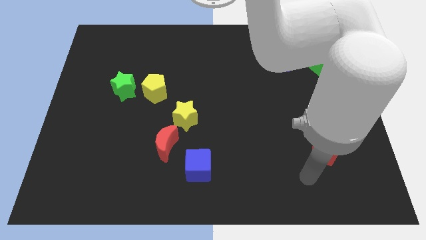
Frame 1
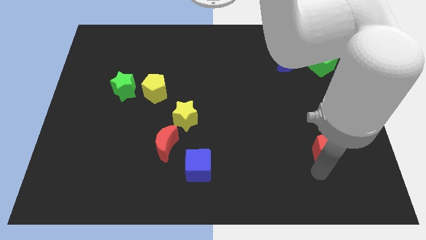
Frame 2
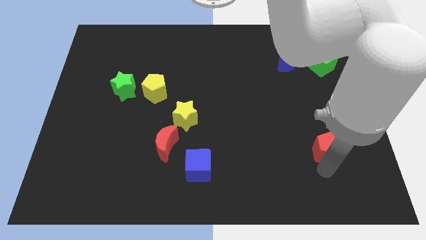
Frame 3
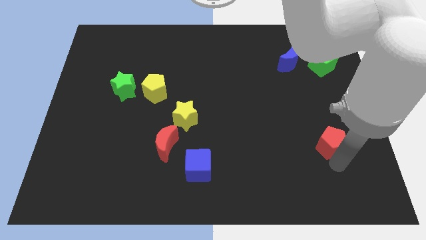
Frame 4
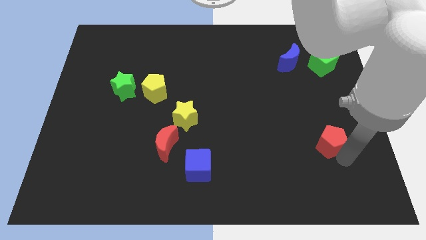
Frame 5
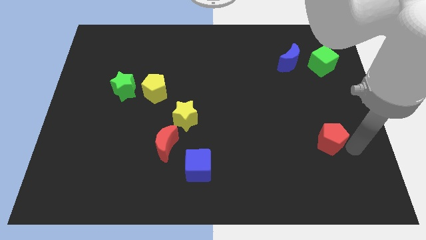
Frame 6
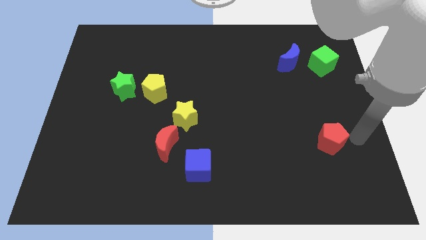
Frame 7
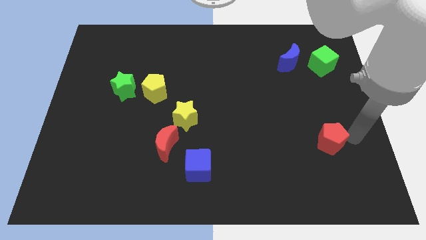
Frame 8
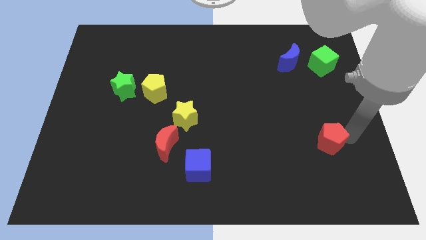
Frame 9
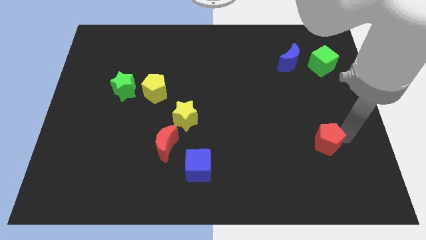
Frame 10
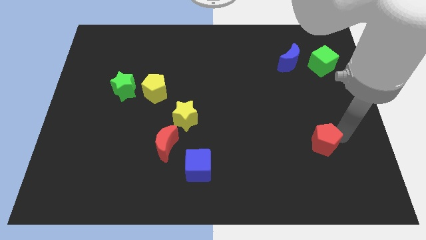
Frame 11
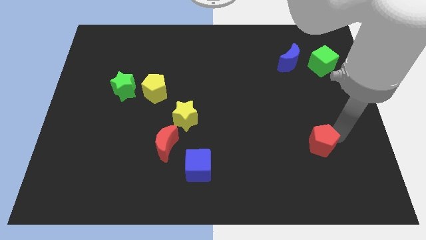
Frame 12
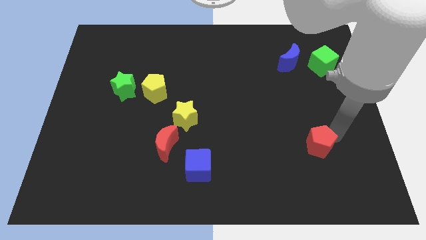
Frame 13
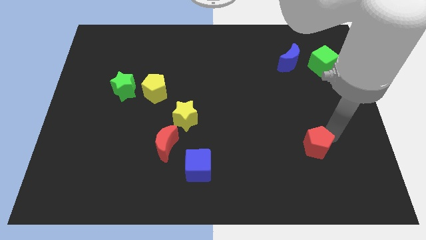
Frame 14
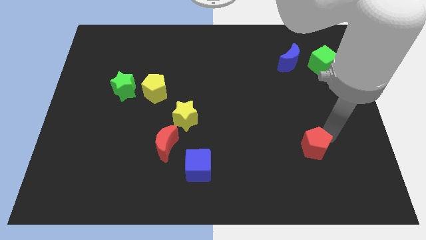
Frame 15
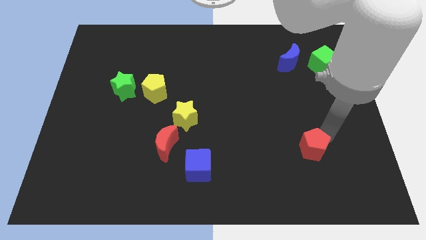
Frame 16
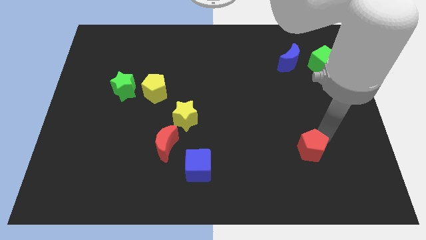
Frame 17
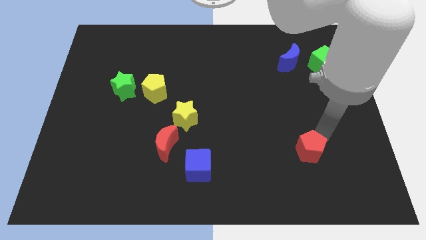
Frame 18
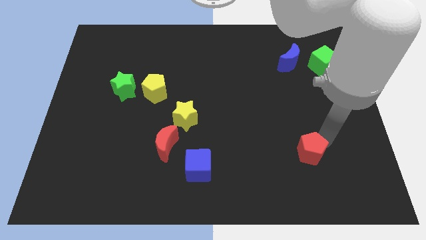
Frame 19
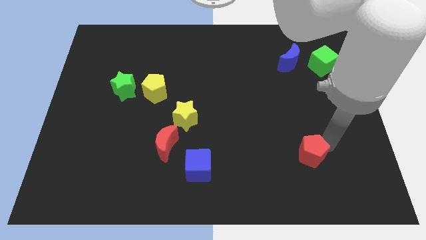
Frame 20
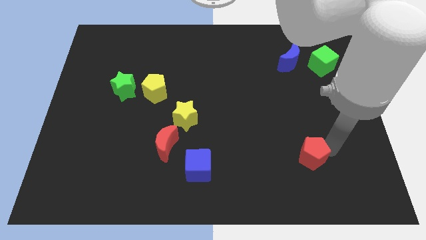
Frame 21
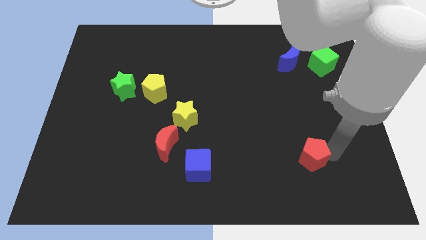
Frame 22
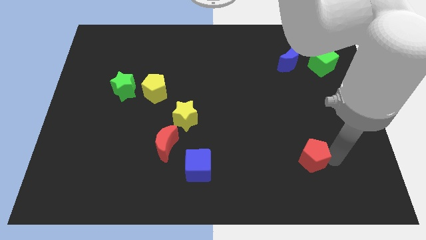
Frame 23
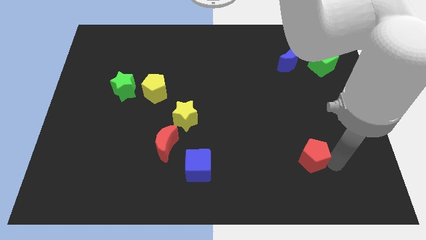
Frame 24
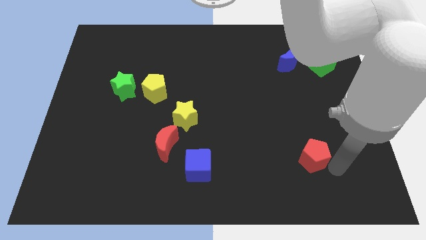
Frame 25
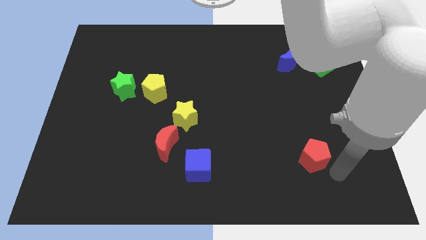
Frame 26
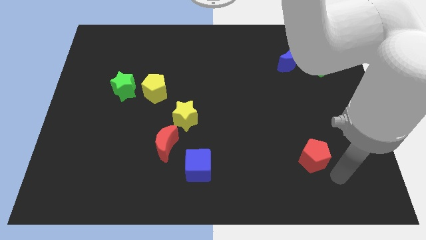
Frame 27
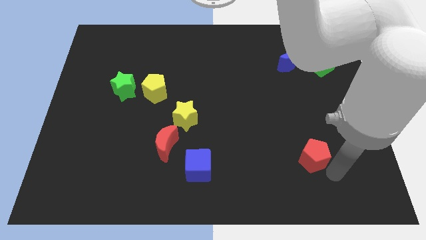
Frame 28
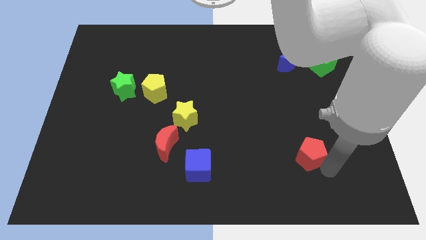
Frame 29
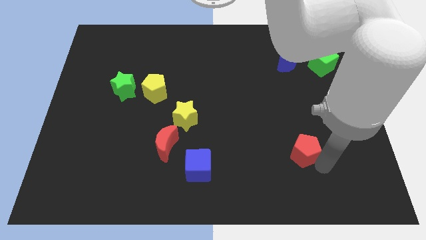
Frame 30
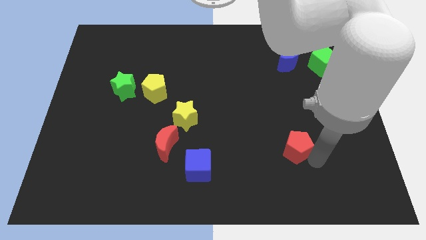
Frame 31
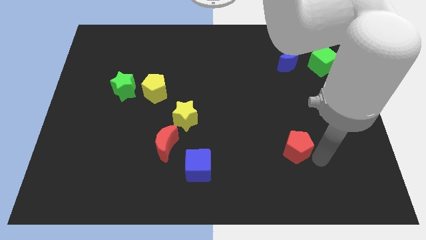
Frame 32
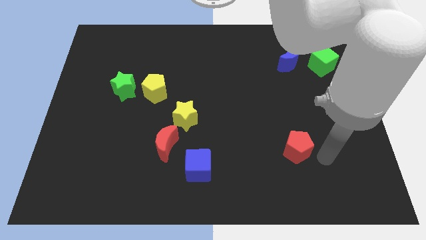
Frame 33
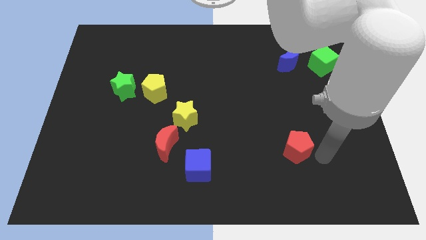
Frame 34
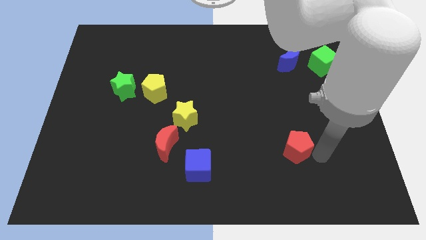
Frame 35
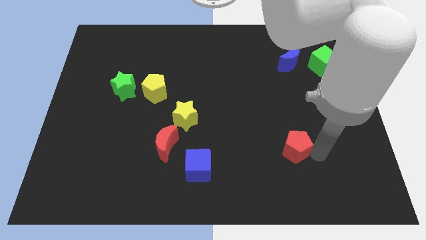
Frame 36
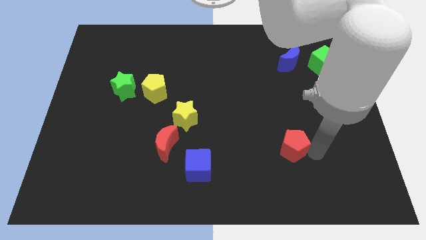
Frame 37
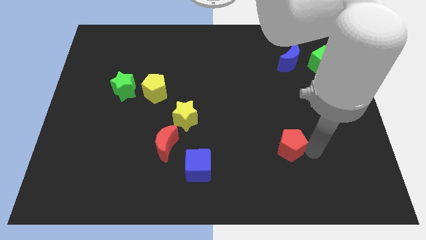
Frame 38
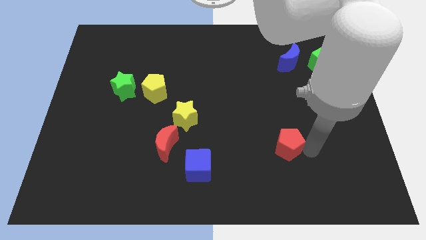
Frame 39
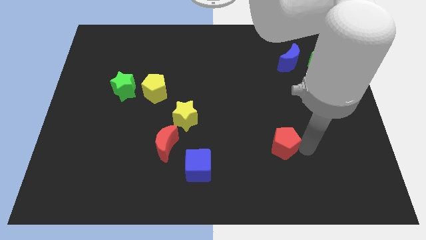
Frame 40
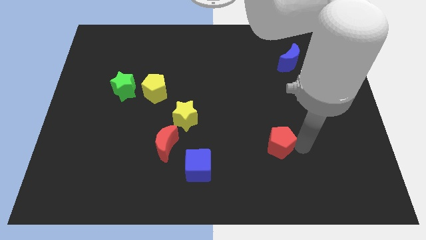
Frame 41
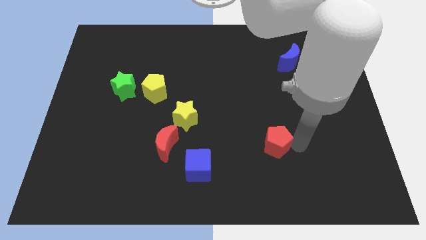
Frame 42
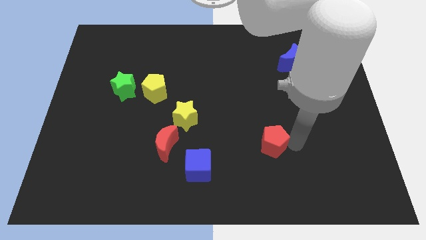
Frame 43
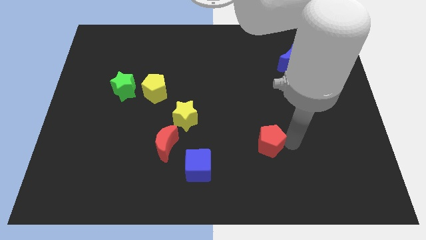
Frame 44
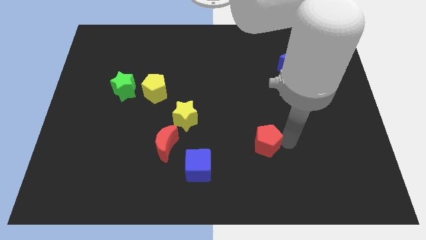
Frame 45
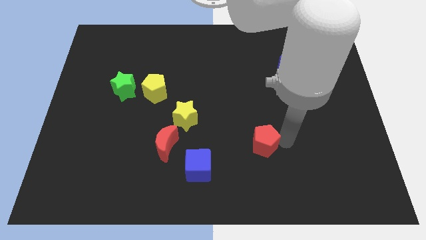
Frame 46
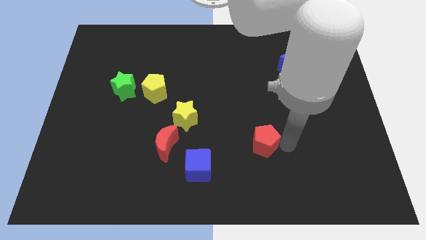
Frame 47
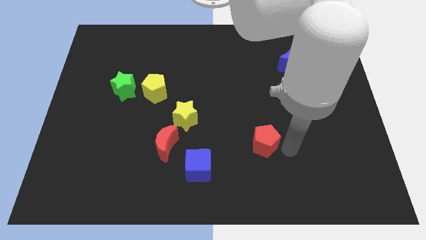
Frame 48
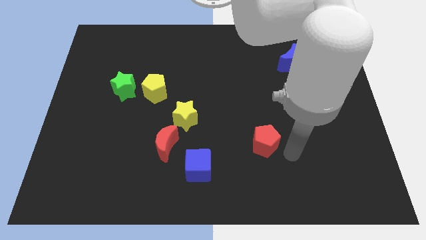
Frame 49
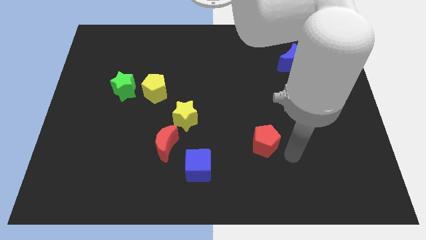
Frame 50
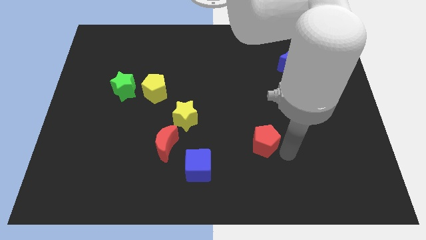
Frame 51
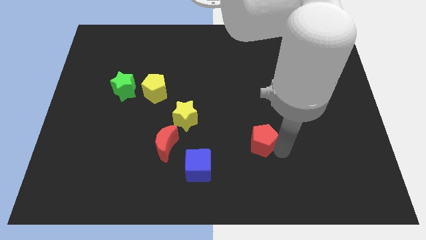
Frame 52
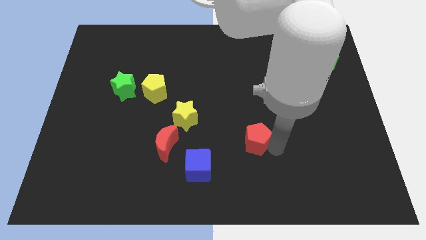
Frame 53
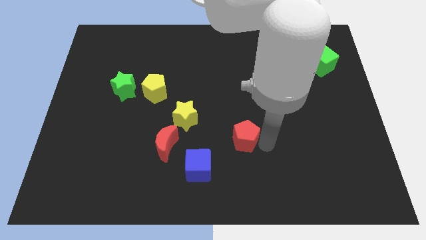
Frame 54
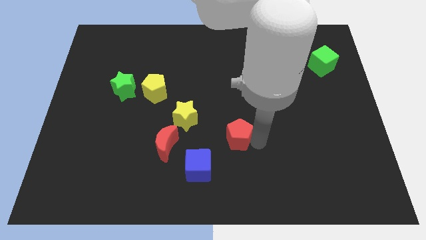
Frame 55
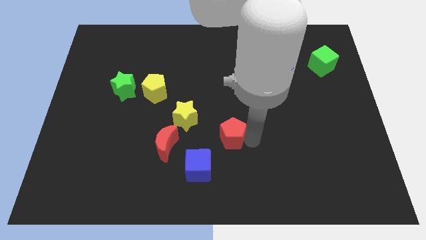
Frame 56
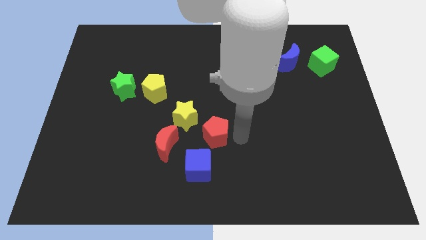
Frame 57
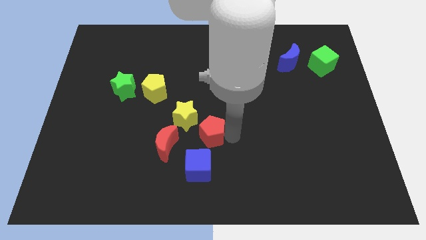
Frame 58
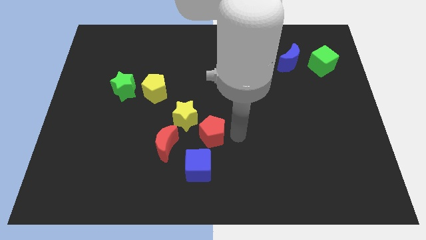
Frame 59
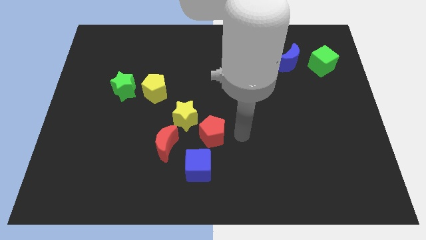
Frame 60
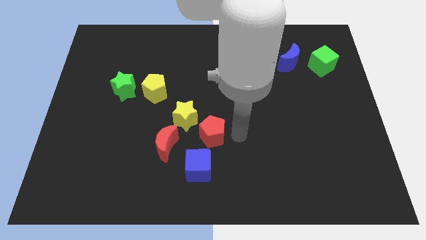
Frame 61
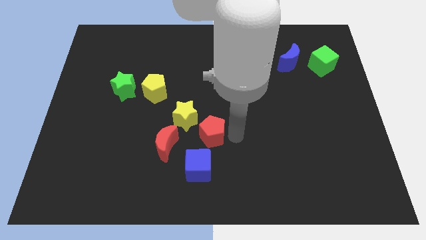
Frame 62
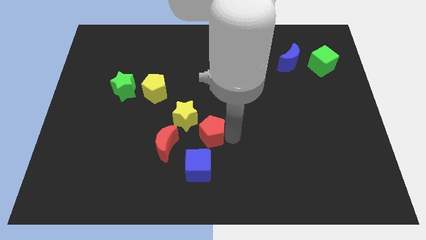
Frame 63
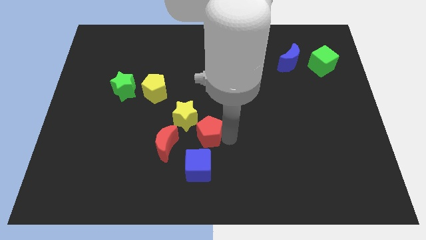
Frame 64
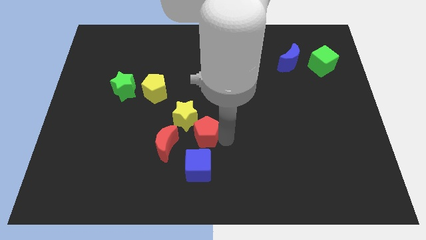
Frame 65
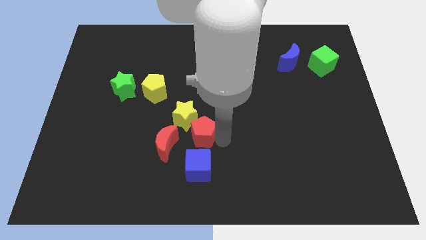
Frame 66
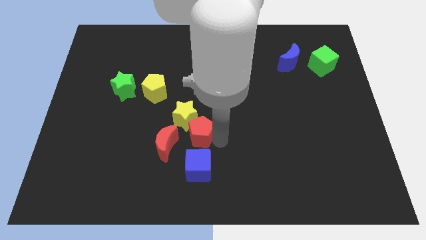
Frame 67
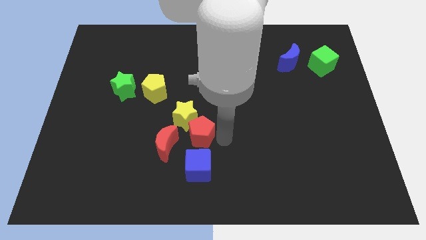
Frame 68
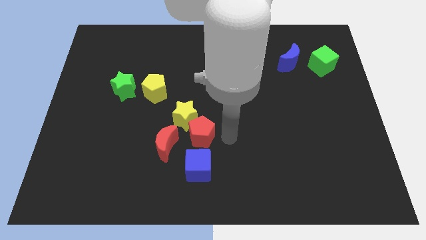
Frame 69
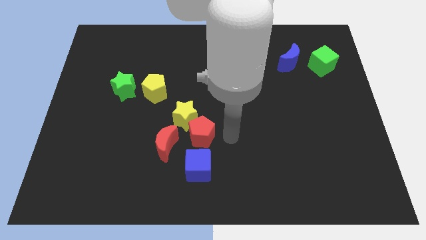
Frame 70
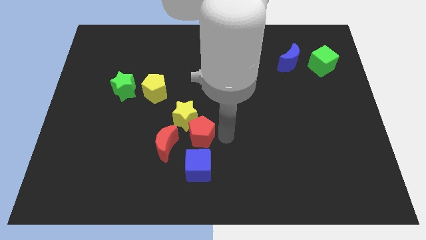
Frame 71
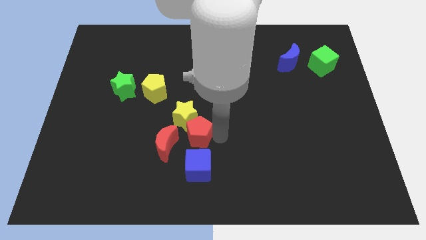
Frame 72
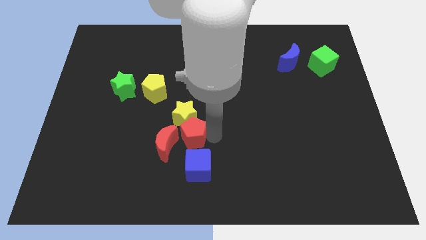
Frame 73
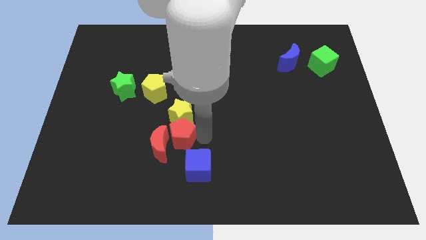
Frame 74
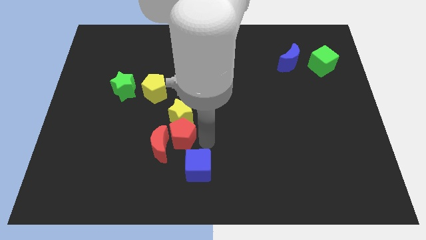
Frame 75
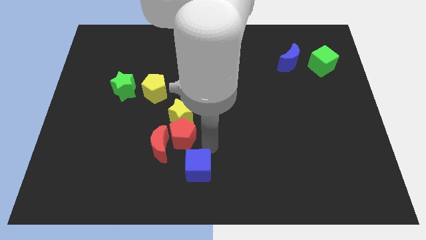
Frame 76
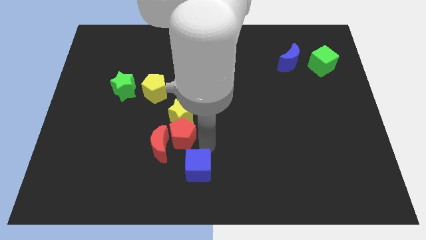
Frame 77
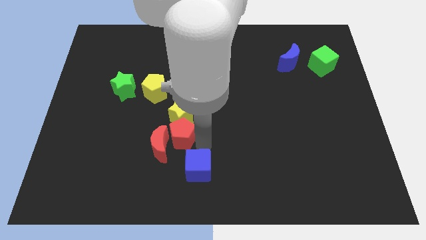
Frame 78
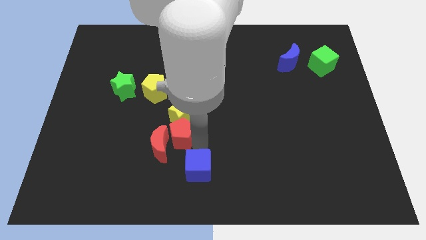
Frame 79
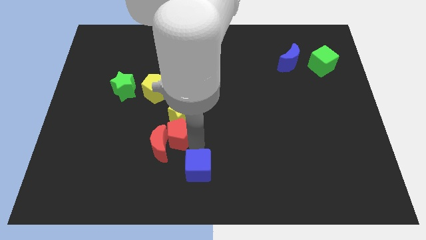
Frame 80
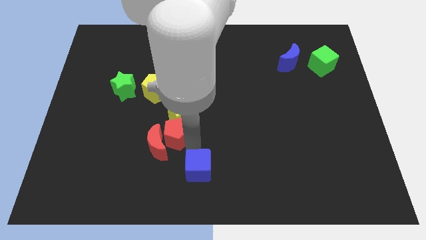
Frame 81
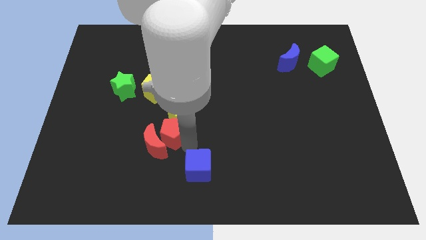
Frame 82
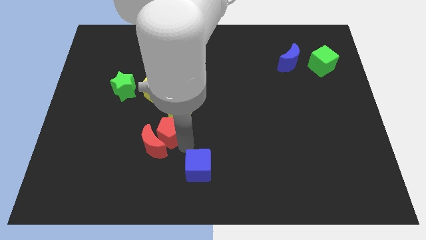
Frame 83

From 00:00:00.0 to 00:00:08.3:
slide the red pentagon below the yellow pentagon
